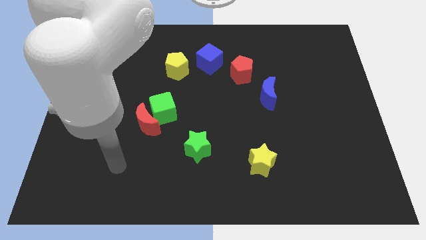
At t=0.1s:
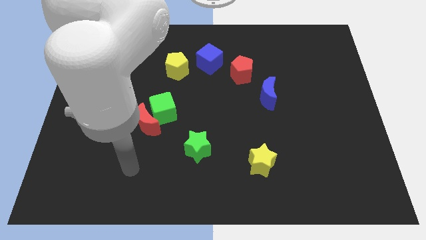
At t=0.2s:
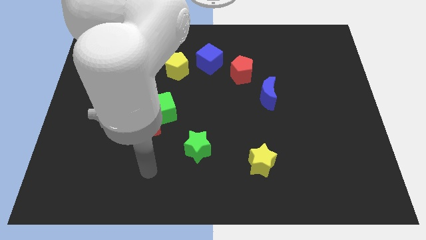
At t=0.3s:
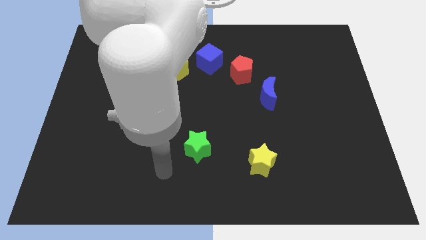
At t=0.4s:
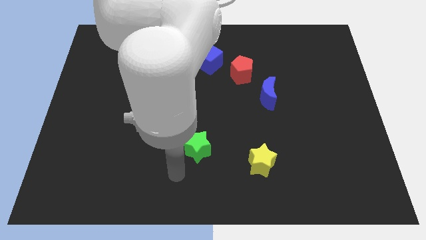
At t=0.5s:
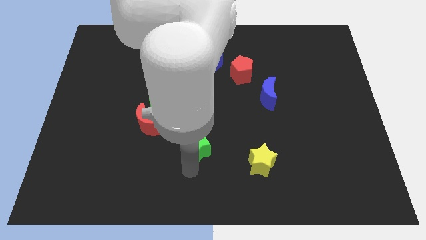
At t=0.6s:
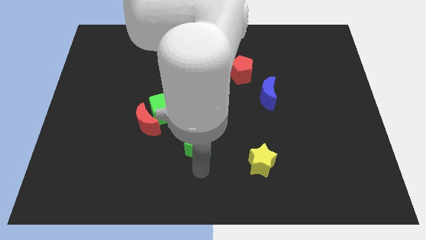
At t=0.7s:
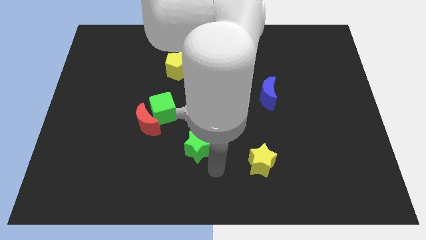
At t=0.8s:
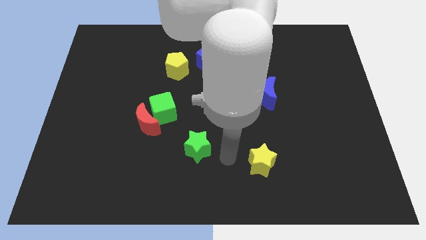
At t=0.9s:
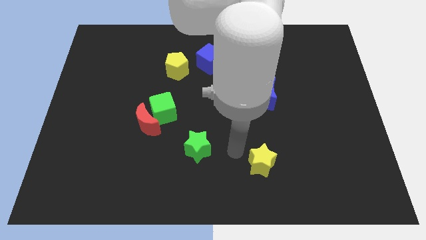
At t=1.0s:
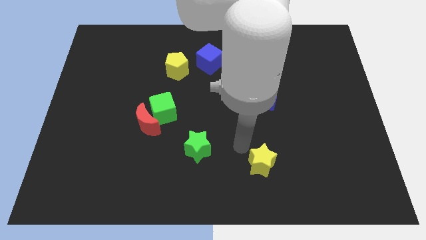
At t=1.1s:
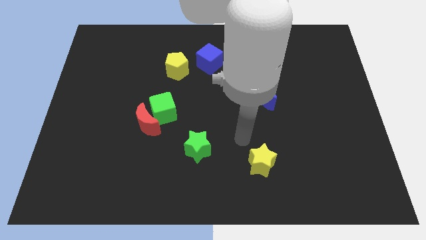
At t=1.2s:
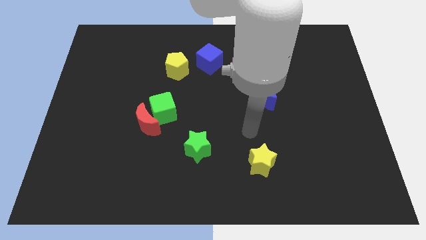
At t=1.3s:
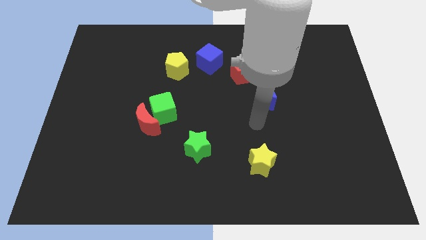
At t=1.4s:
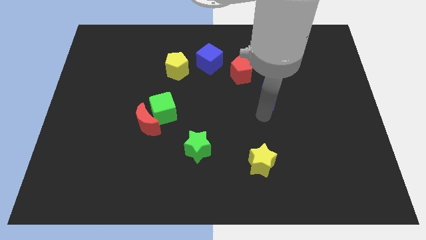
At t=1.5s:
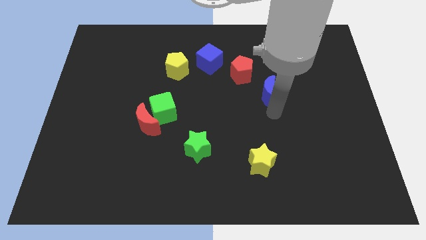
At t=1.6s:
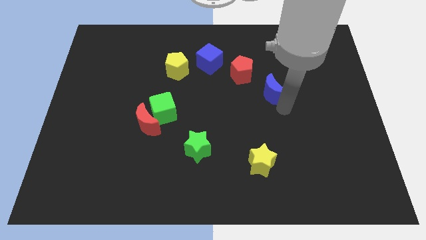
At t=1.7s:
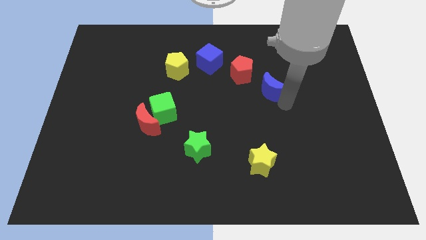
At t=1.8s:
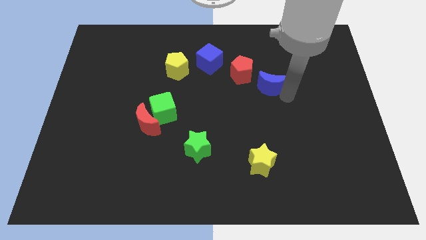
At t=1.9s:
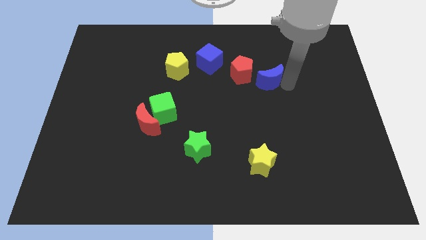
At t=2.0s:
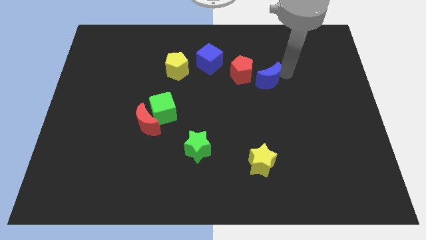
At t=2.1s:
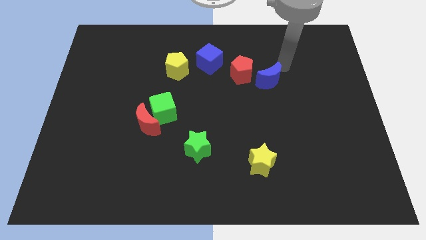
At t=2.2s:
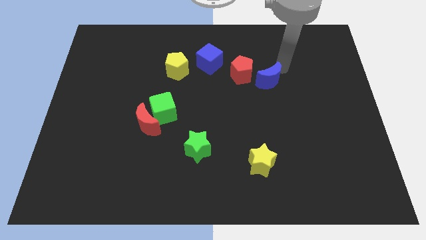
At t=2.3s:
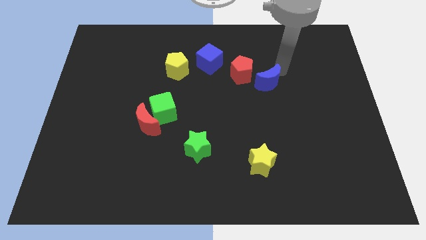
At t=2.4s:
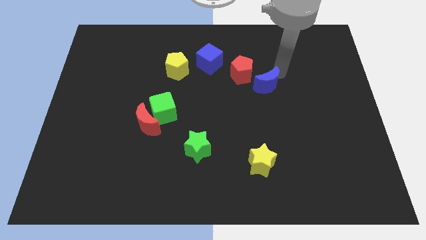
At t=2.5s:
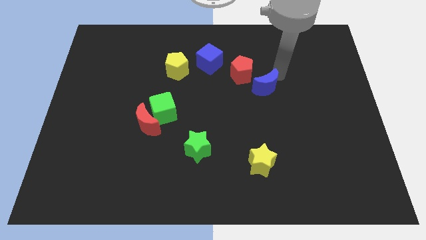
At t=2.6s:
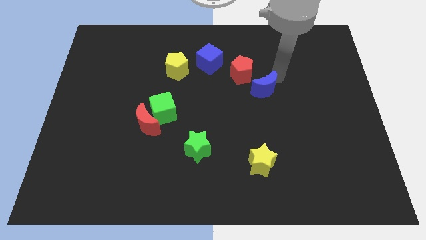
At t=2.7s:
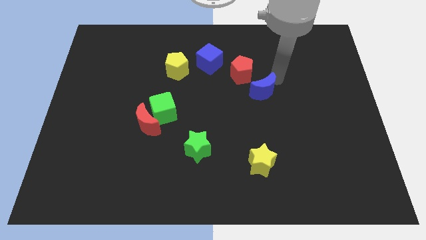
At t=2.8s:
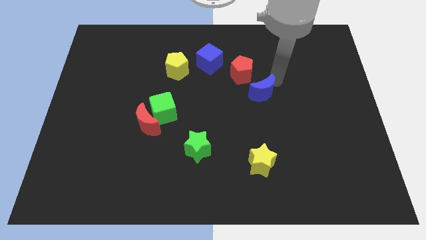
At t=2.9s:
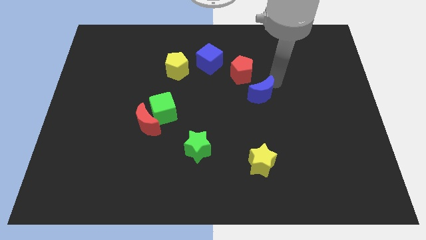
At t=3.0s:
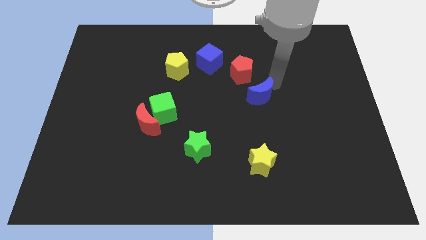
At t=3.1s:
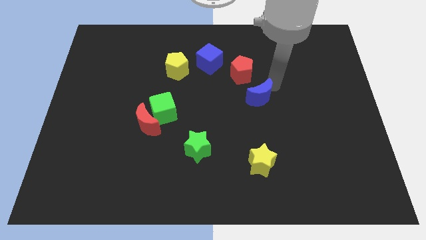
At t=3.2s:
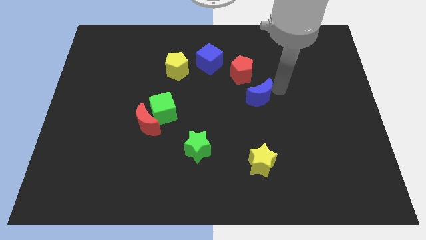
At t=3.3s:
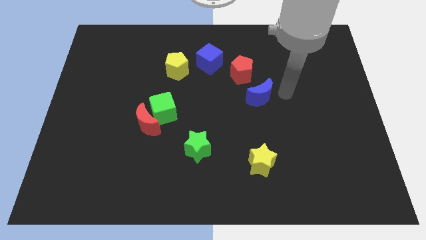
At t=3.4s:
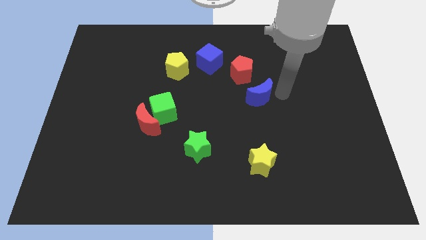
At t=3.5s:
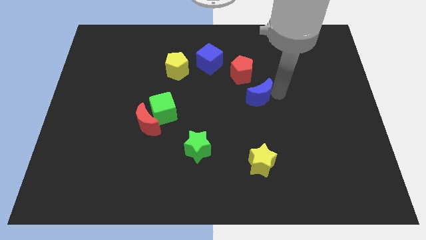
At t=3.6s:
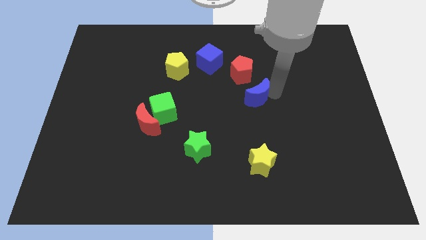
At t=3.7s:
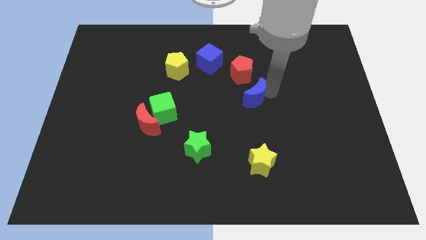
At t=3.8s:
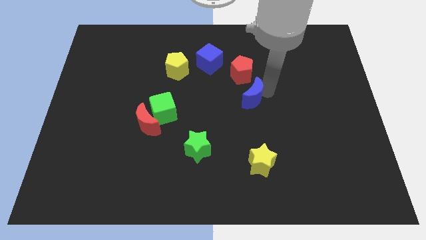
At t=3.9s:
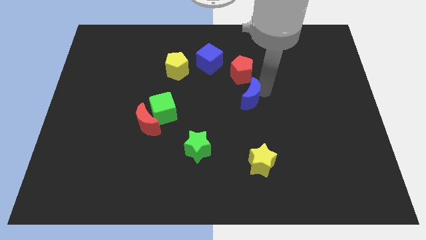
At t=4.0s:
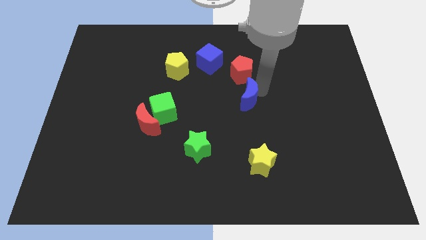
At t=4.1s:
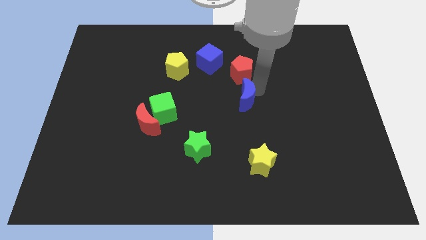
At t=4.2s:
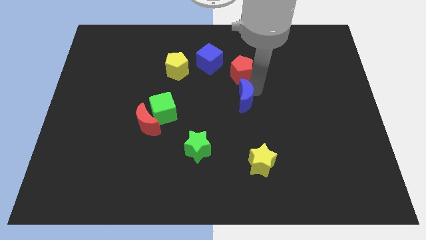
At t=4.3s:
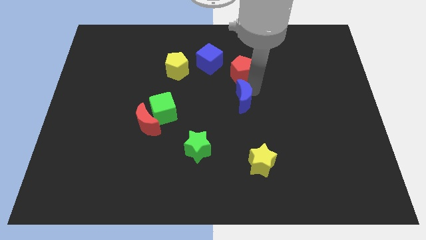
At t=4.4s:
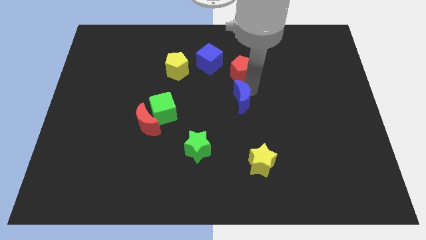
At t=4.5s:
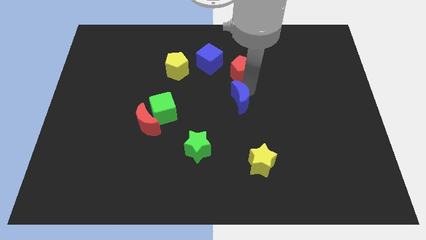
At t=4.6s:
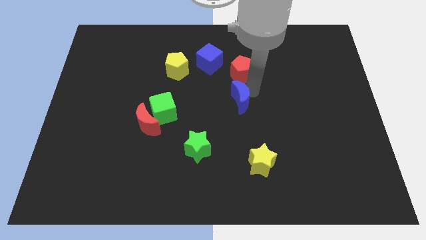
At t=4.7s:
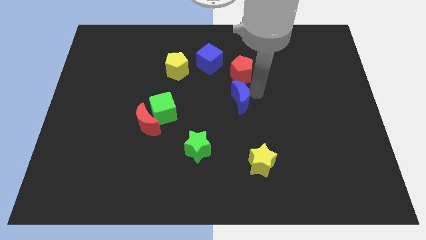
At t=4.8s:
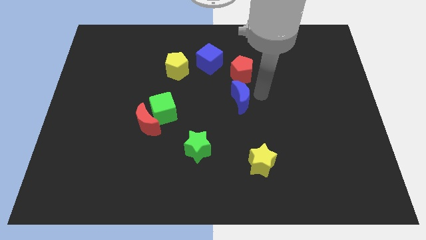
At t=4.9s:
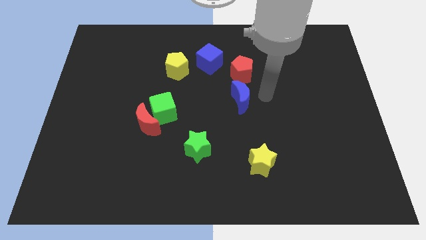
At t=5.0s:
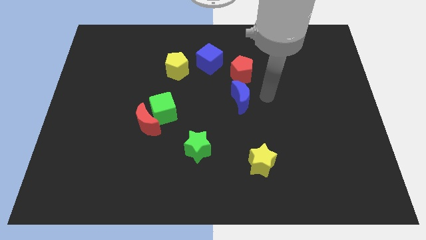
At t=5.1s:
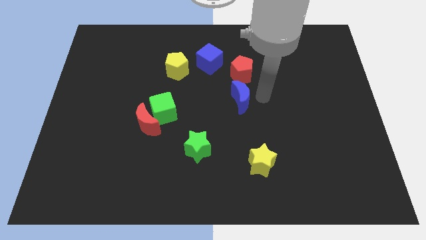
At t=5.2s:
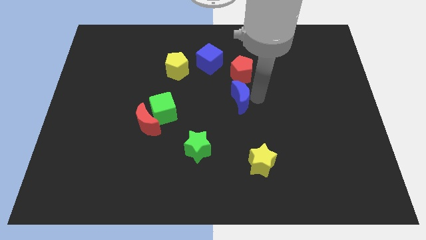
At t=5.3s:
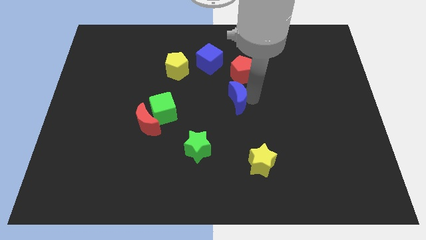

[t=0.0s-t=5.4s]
slide the blue moon a little left

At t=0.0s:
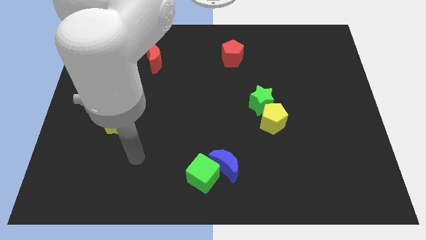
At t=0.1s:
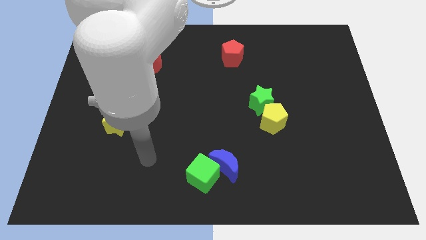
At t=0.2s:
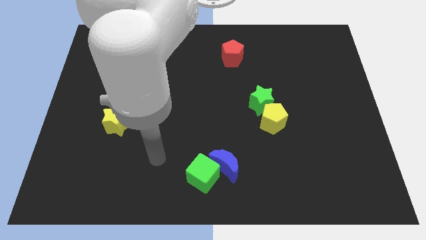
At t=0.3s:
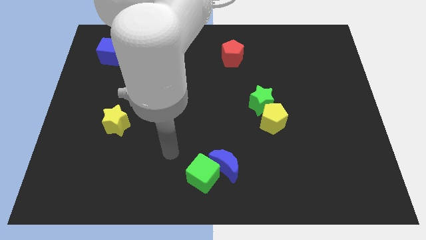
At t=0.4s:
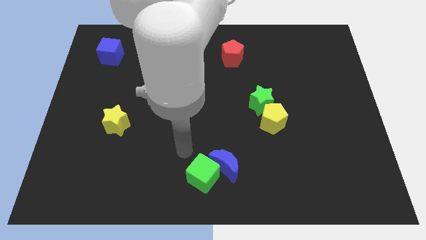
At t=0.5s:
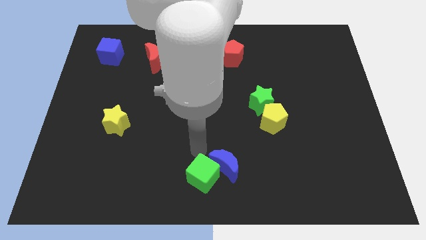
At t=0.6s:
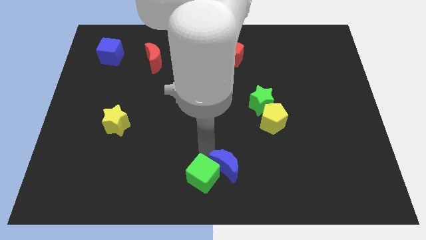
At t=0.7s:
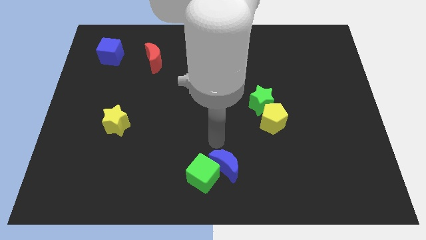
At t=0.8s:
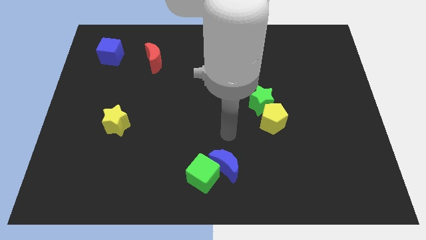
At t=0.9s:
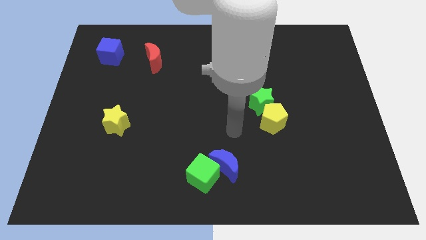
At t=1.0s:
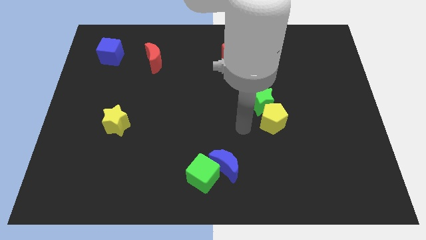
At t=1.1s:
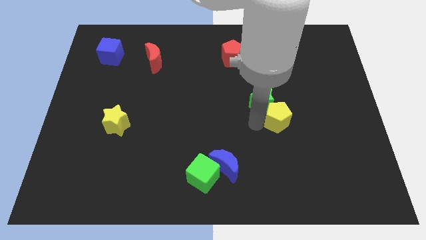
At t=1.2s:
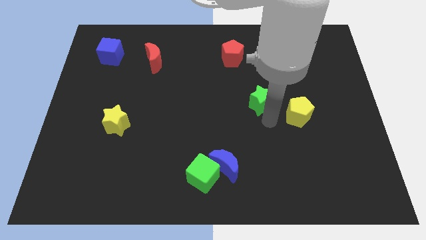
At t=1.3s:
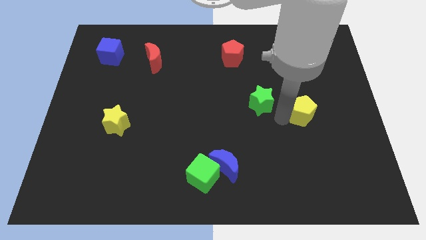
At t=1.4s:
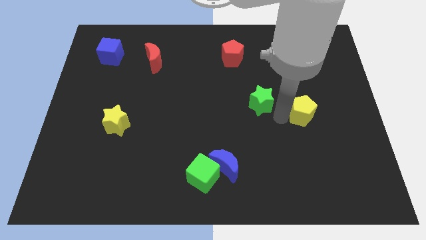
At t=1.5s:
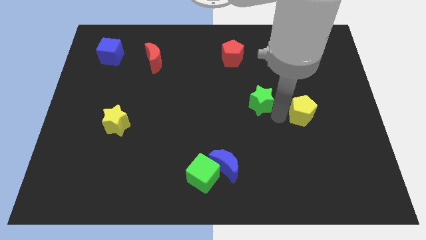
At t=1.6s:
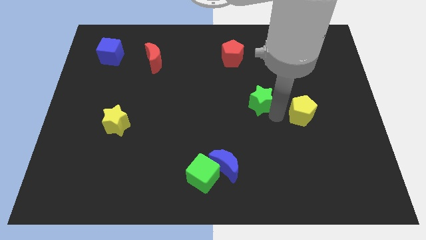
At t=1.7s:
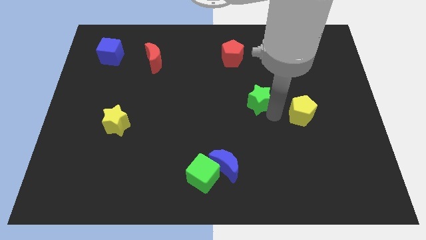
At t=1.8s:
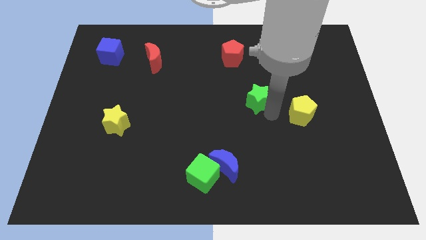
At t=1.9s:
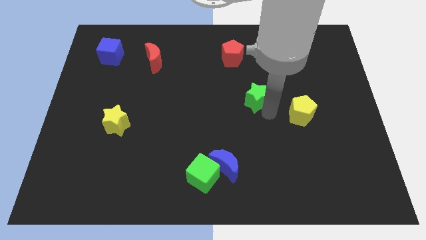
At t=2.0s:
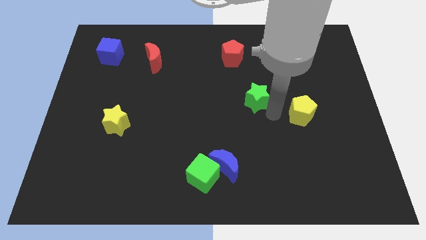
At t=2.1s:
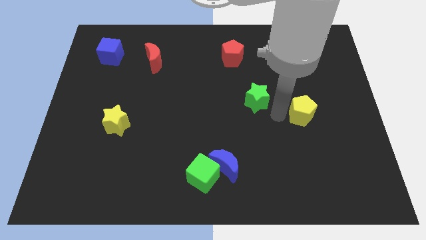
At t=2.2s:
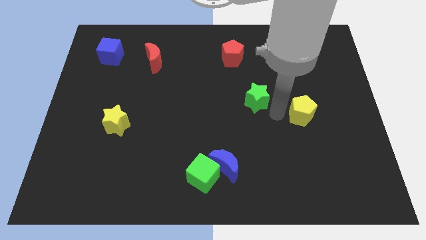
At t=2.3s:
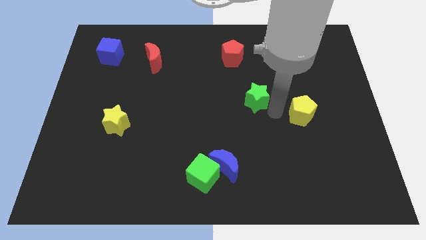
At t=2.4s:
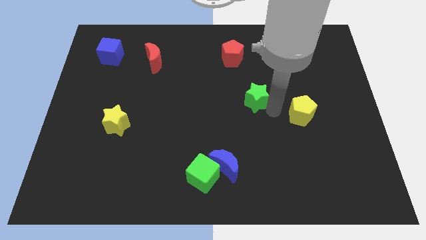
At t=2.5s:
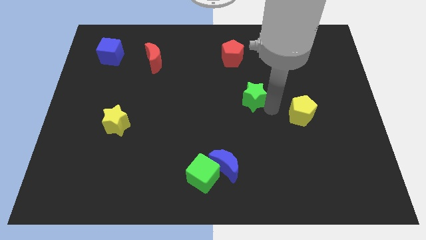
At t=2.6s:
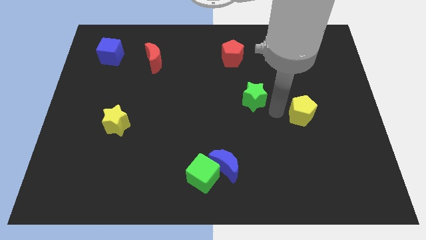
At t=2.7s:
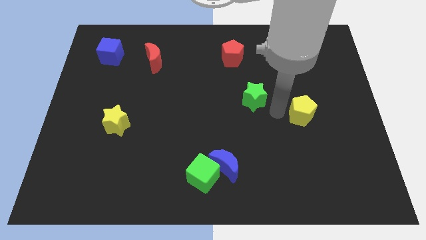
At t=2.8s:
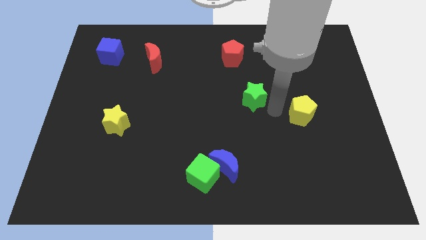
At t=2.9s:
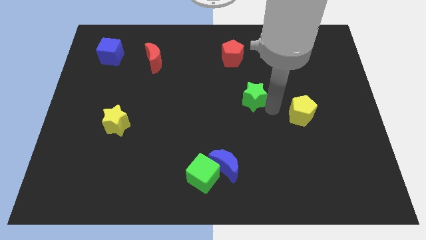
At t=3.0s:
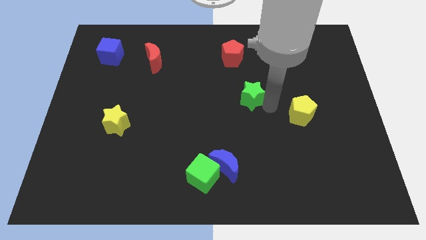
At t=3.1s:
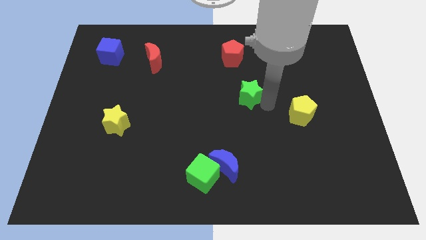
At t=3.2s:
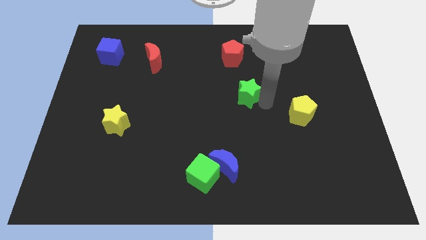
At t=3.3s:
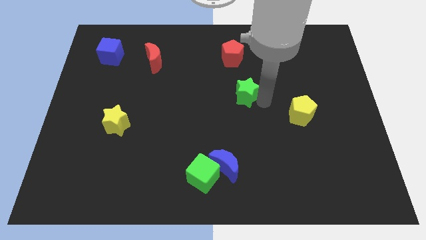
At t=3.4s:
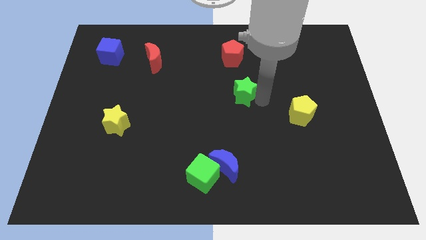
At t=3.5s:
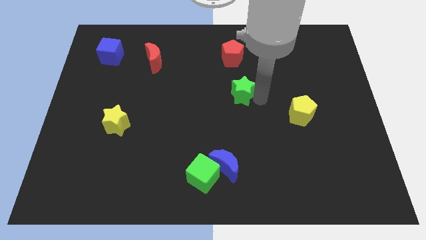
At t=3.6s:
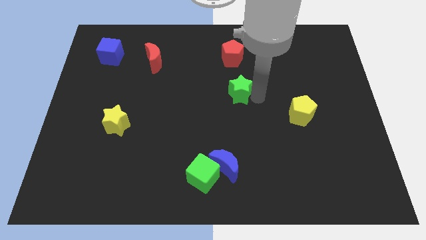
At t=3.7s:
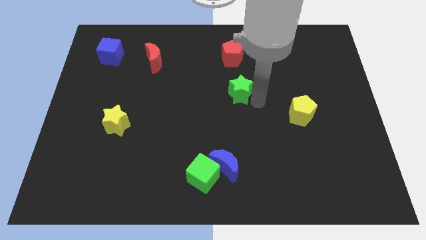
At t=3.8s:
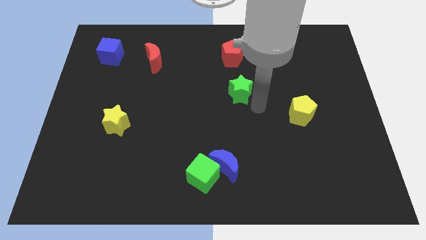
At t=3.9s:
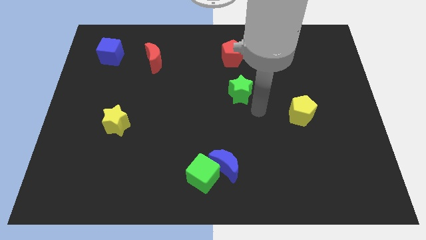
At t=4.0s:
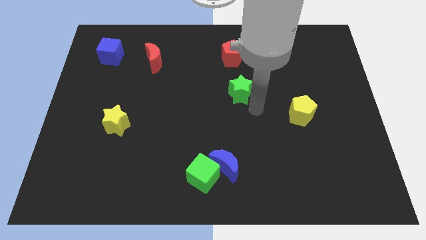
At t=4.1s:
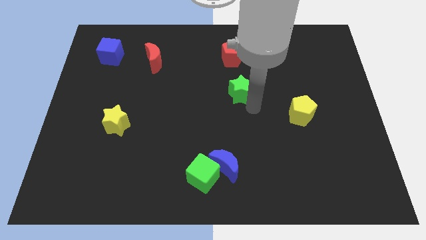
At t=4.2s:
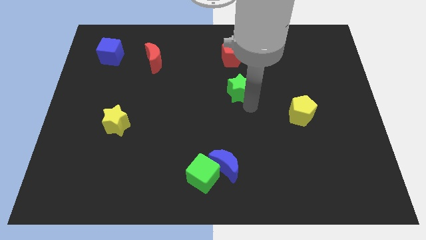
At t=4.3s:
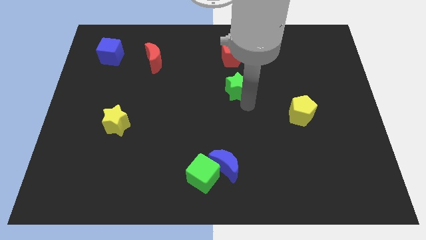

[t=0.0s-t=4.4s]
push the green star somewhat diagonally upwards and to the left
